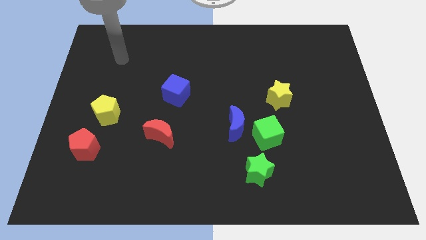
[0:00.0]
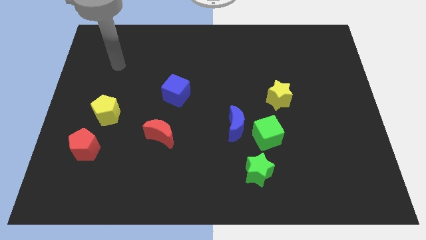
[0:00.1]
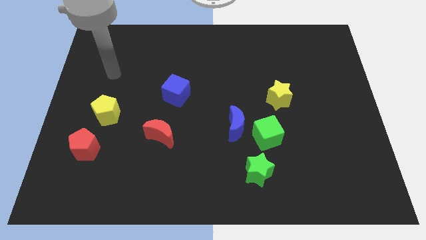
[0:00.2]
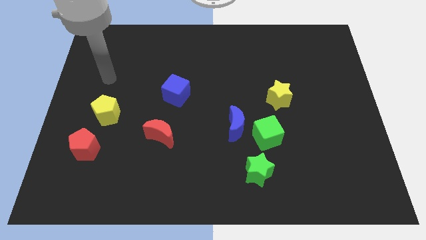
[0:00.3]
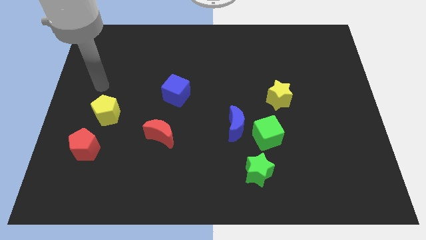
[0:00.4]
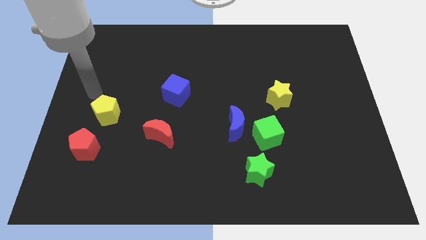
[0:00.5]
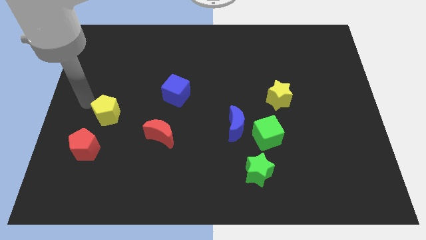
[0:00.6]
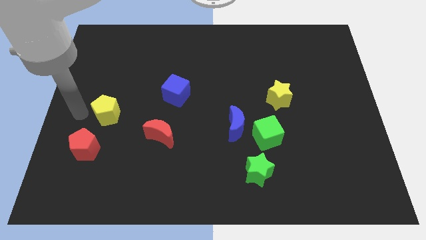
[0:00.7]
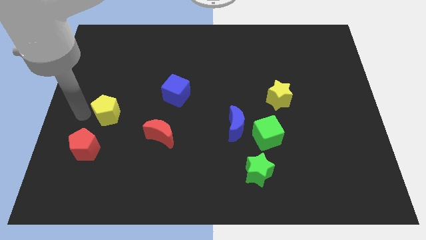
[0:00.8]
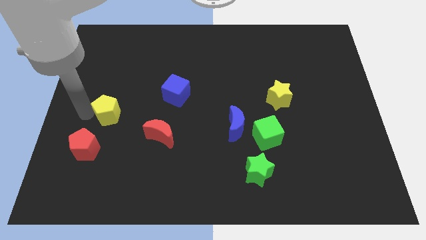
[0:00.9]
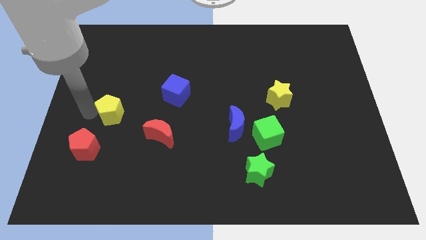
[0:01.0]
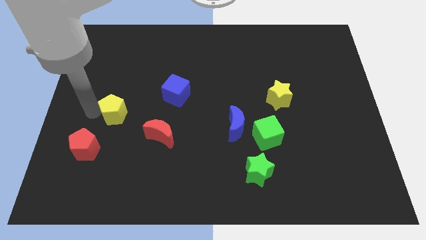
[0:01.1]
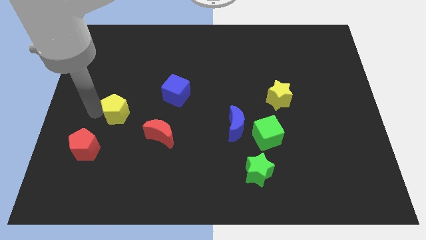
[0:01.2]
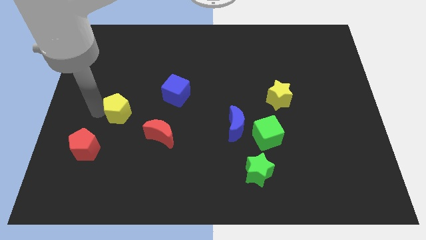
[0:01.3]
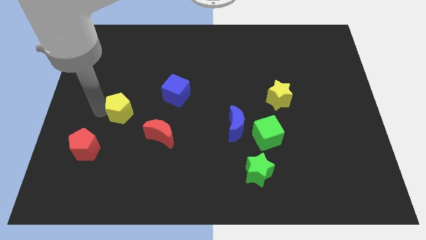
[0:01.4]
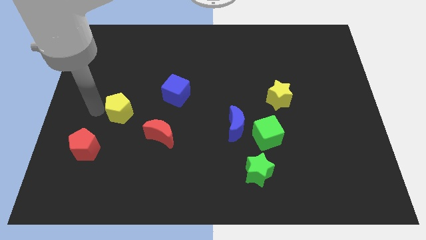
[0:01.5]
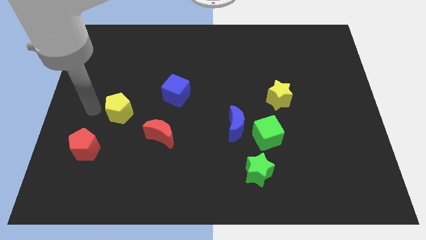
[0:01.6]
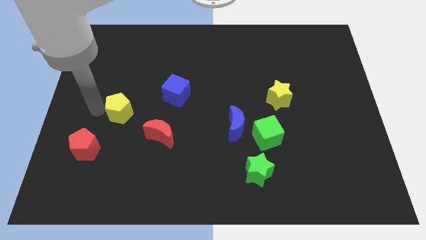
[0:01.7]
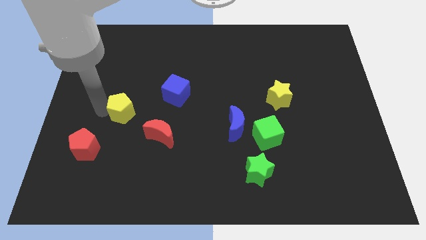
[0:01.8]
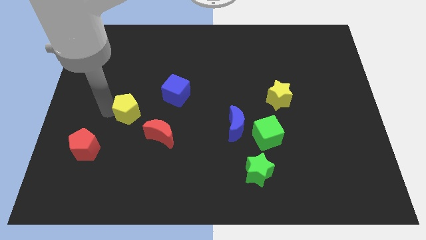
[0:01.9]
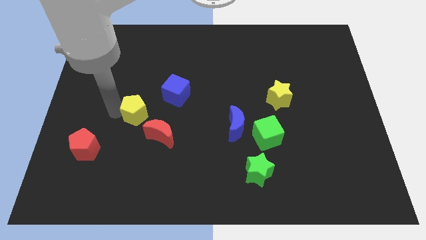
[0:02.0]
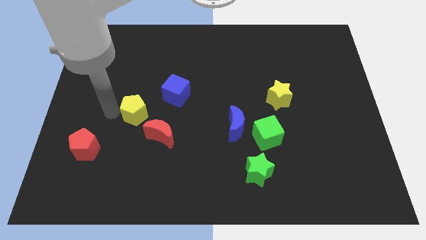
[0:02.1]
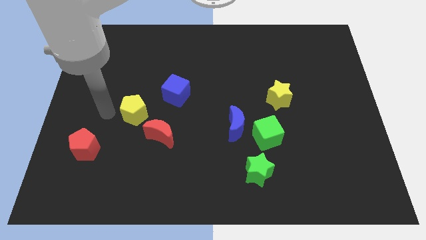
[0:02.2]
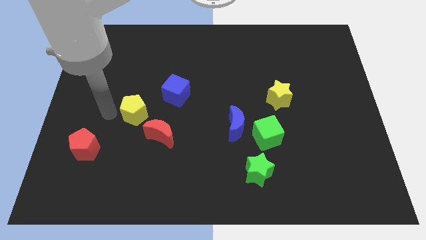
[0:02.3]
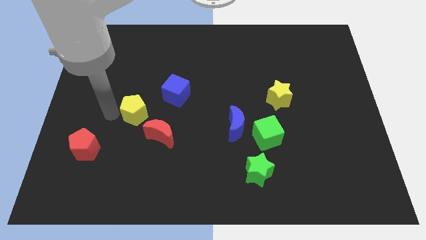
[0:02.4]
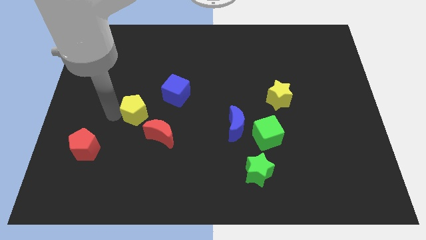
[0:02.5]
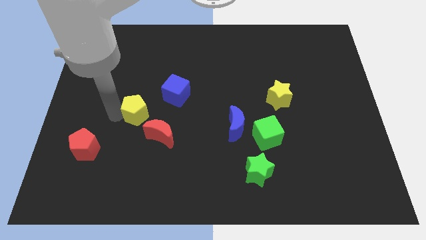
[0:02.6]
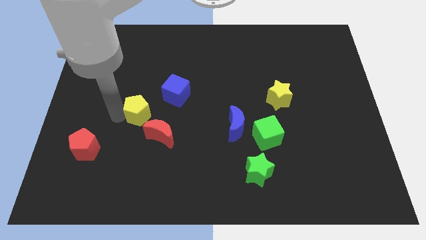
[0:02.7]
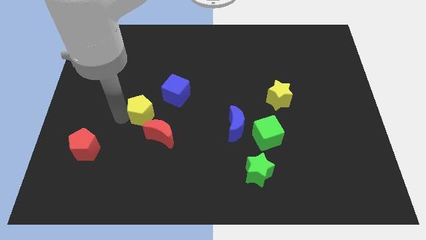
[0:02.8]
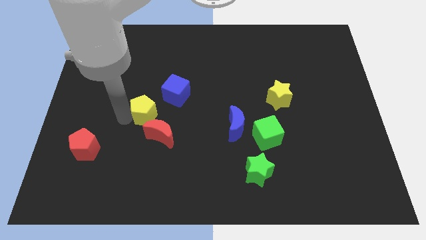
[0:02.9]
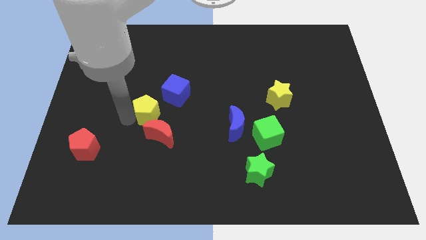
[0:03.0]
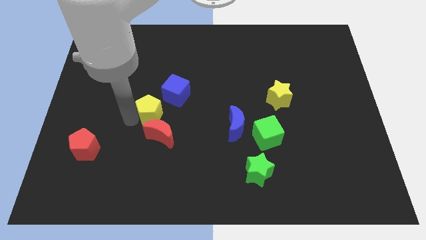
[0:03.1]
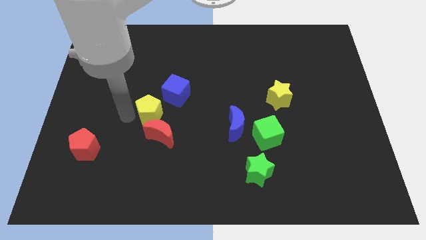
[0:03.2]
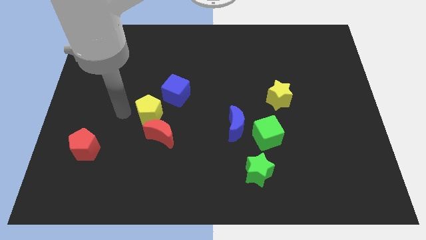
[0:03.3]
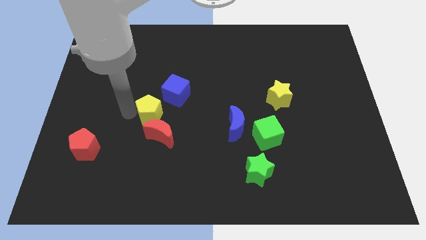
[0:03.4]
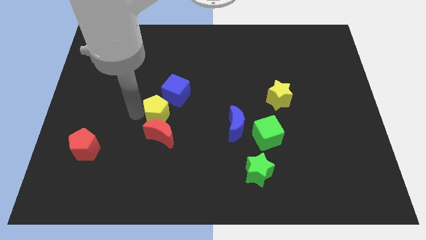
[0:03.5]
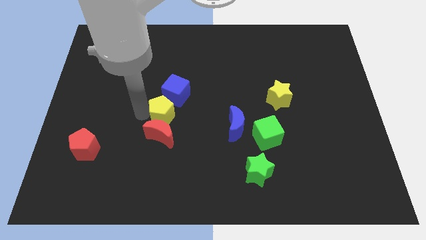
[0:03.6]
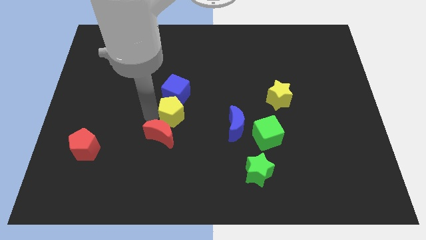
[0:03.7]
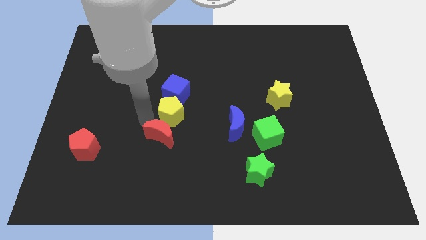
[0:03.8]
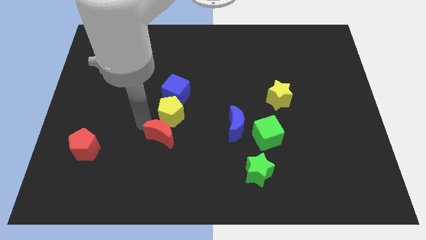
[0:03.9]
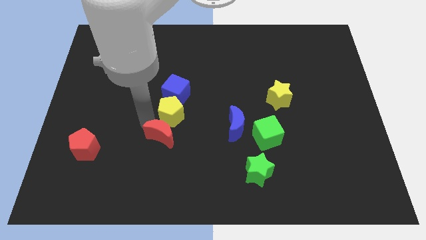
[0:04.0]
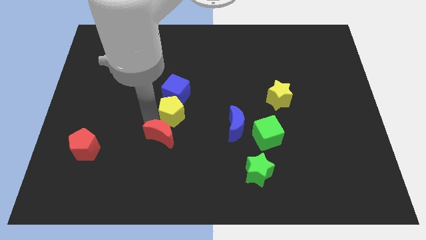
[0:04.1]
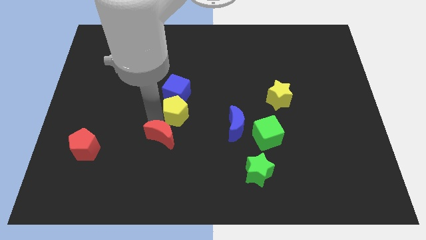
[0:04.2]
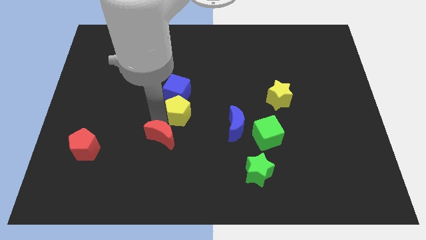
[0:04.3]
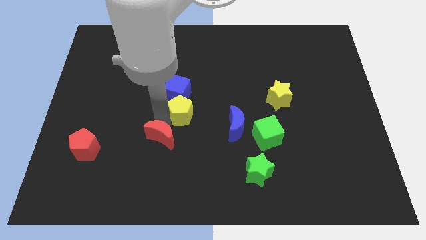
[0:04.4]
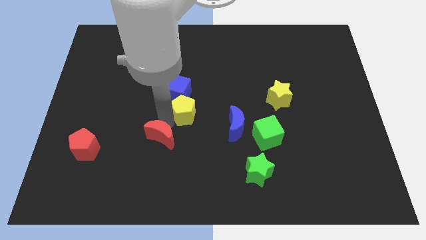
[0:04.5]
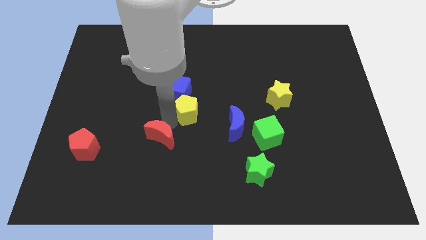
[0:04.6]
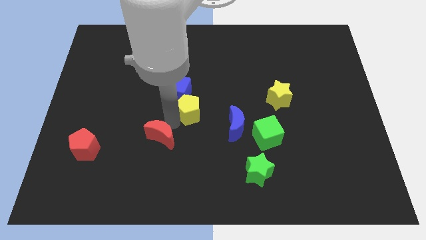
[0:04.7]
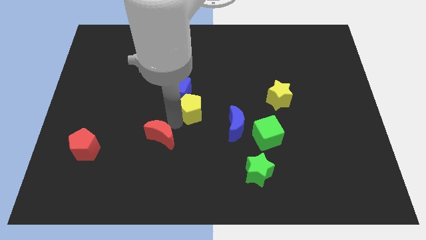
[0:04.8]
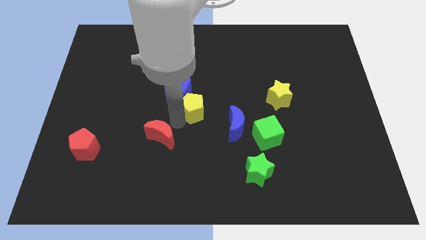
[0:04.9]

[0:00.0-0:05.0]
slide the yellow pentagon right

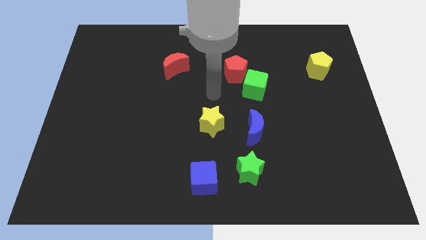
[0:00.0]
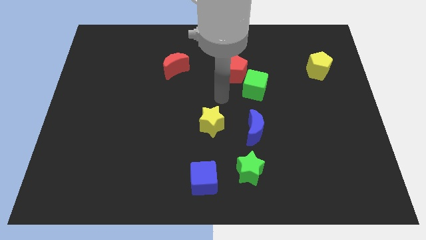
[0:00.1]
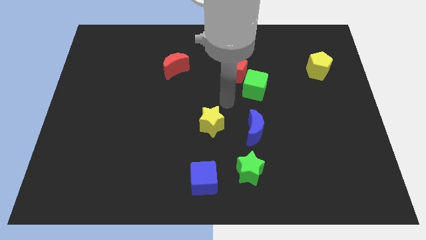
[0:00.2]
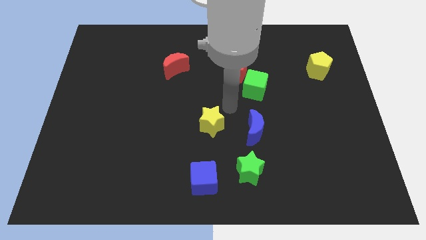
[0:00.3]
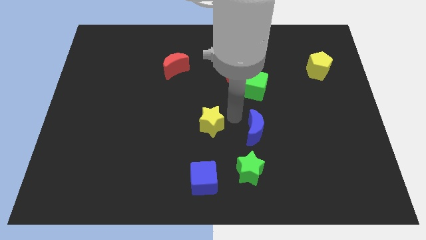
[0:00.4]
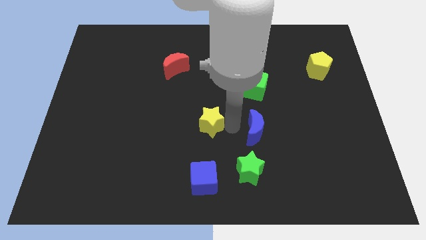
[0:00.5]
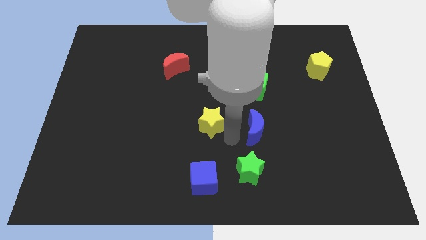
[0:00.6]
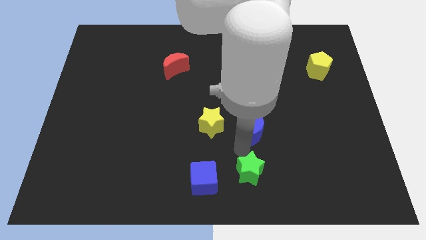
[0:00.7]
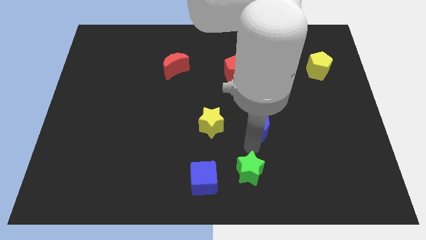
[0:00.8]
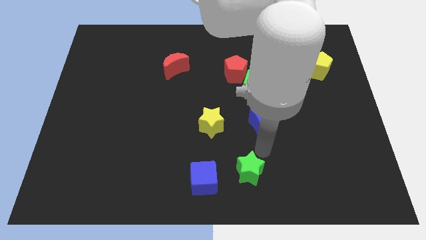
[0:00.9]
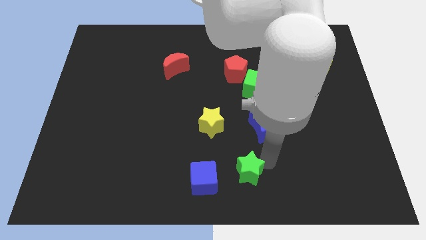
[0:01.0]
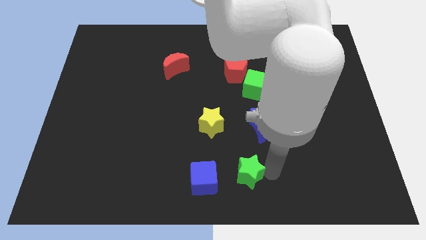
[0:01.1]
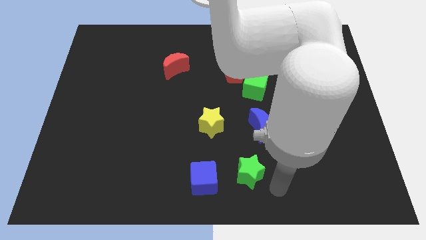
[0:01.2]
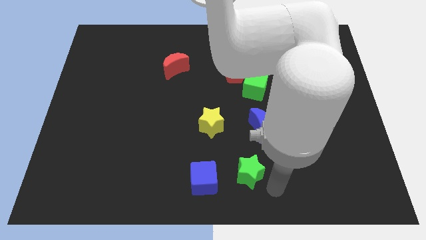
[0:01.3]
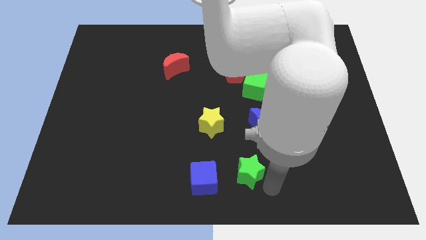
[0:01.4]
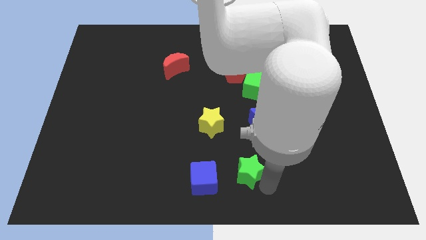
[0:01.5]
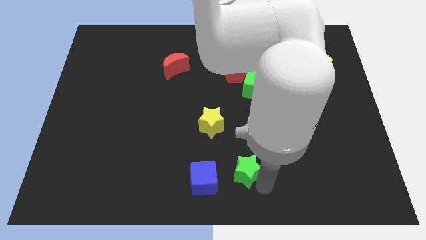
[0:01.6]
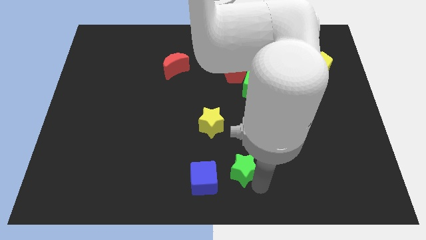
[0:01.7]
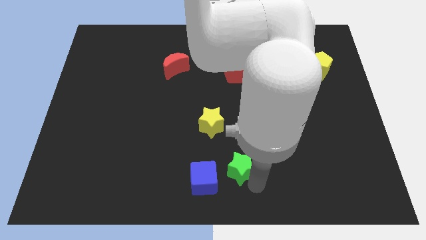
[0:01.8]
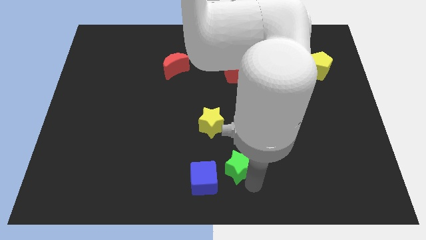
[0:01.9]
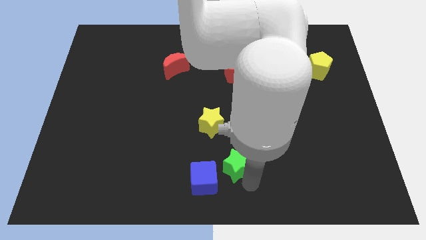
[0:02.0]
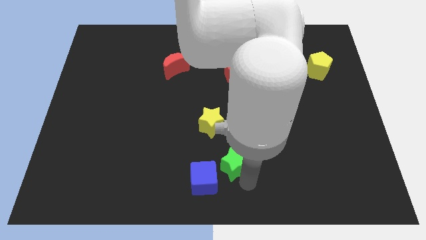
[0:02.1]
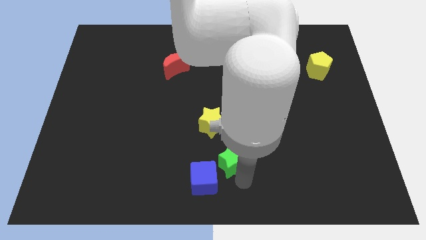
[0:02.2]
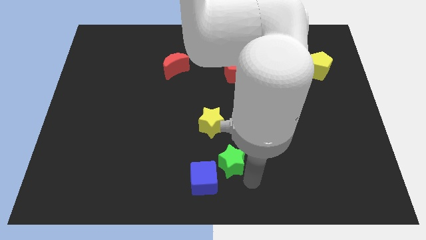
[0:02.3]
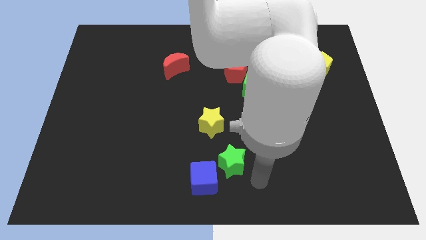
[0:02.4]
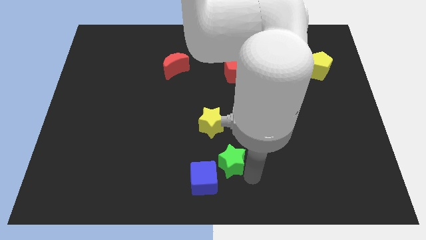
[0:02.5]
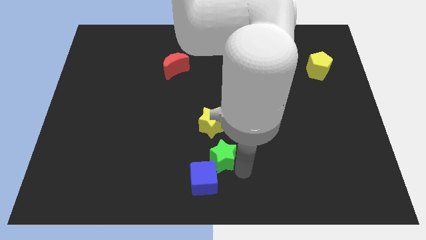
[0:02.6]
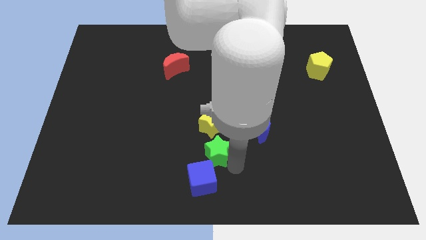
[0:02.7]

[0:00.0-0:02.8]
move the green star a little up and left

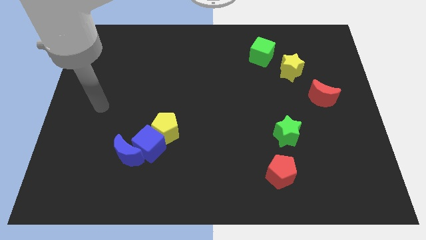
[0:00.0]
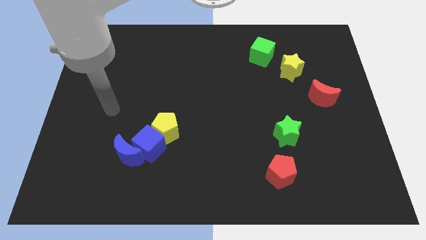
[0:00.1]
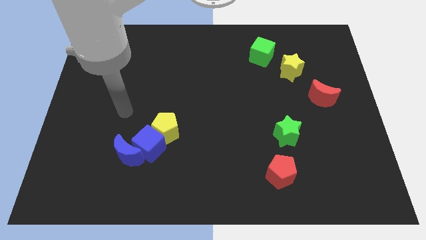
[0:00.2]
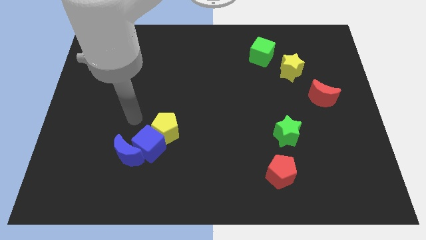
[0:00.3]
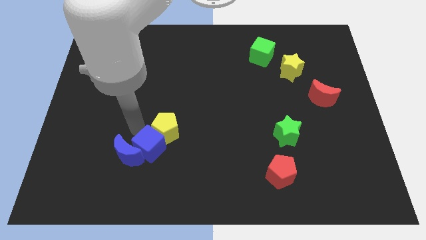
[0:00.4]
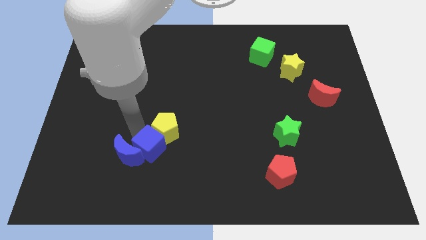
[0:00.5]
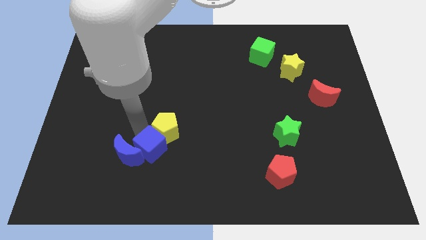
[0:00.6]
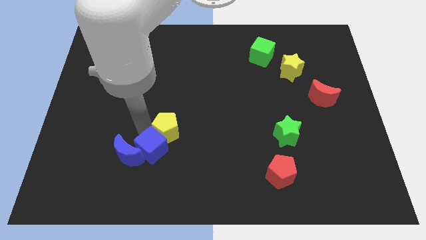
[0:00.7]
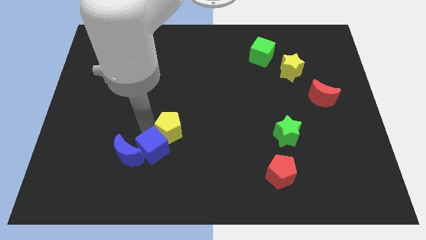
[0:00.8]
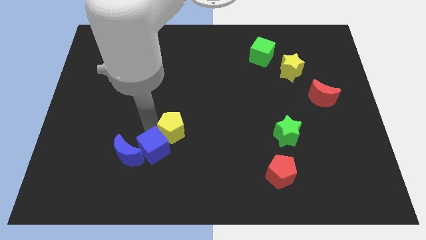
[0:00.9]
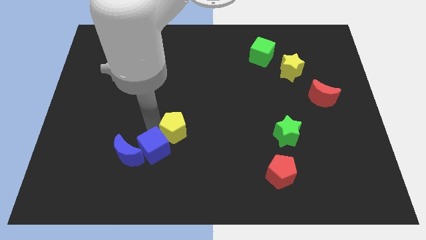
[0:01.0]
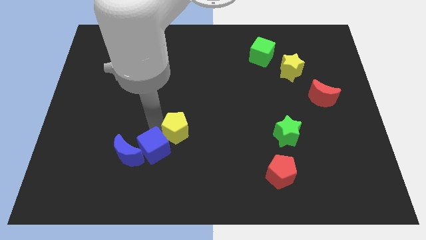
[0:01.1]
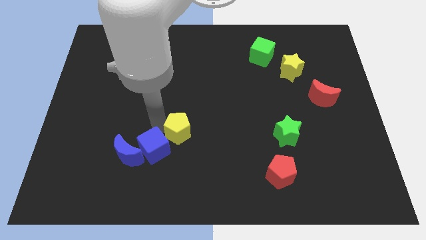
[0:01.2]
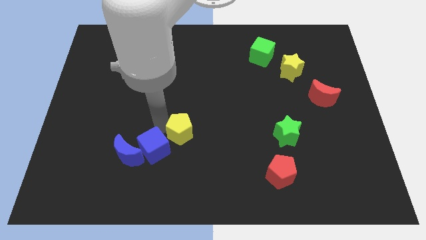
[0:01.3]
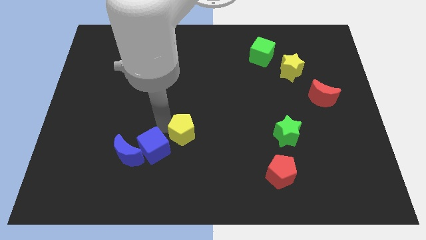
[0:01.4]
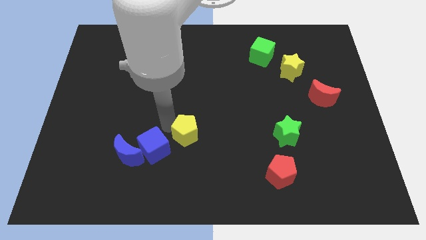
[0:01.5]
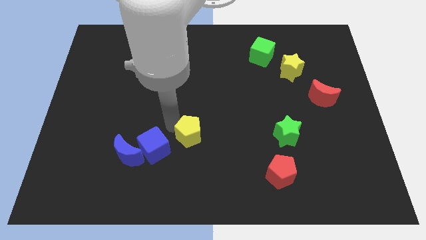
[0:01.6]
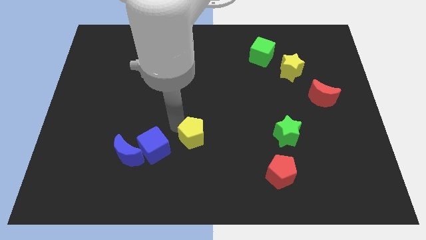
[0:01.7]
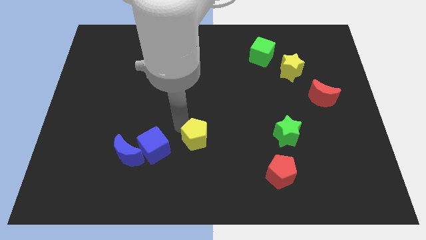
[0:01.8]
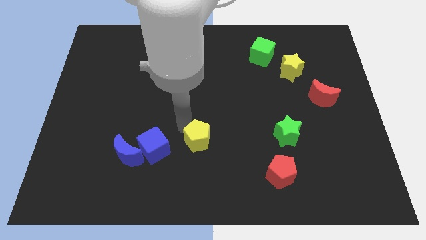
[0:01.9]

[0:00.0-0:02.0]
slide the yellow pentagon to the right a little
